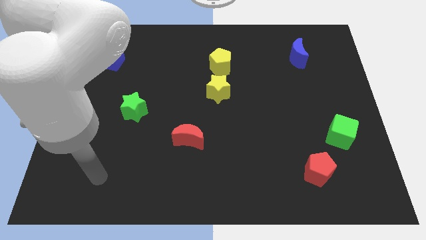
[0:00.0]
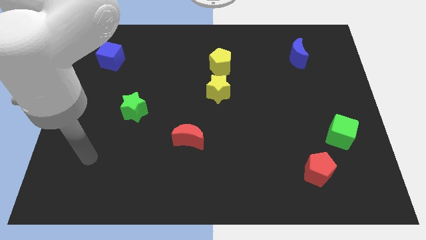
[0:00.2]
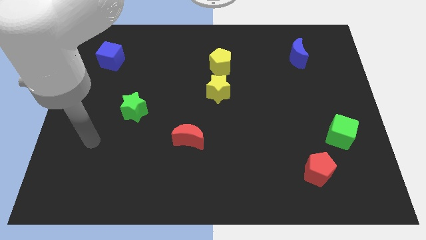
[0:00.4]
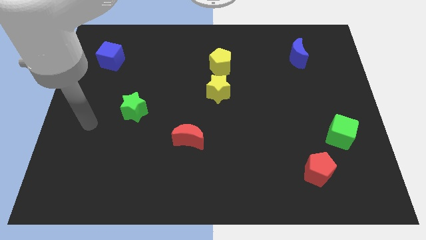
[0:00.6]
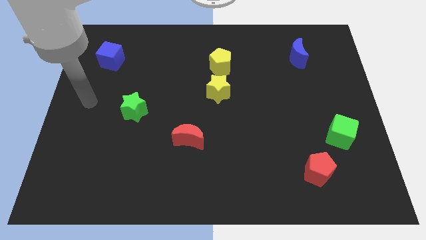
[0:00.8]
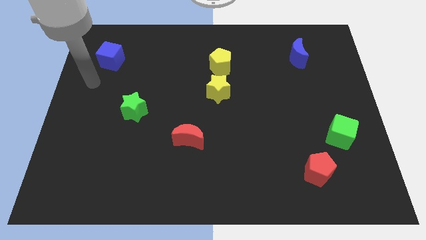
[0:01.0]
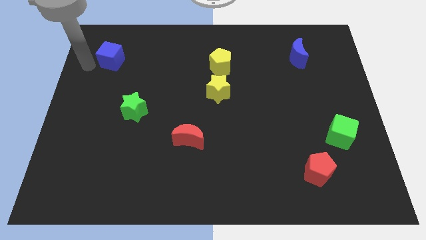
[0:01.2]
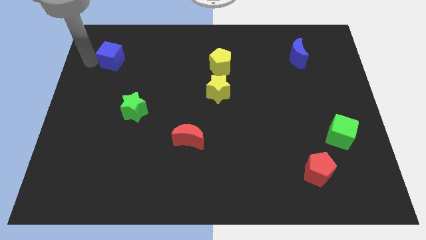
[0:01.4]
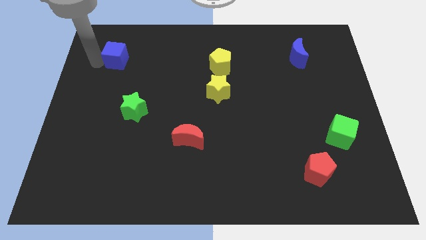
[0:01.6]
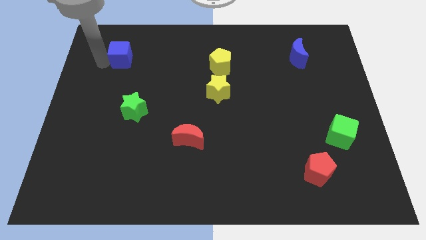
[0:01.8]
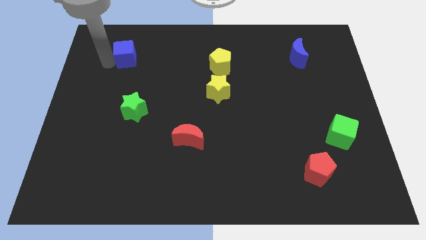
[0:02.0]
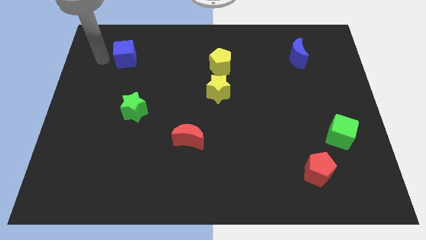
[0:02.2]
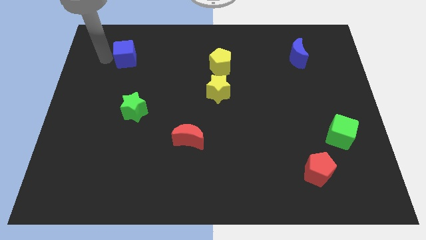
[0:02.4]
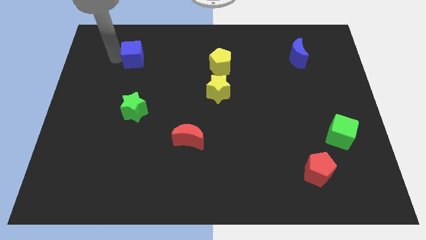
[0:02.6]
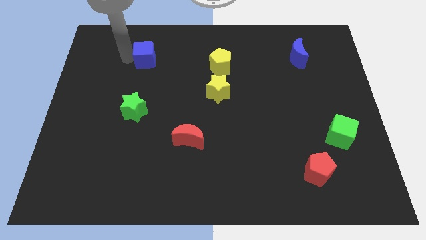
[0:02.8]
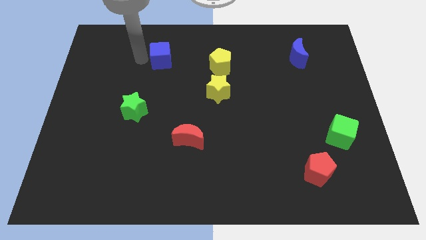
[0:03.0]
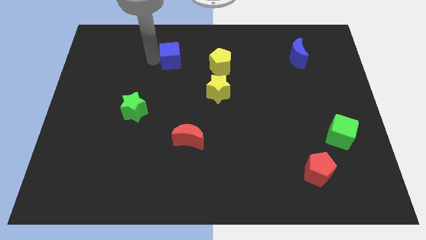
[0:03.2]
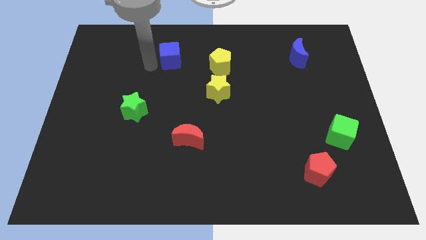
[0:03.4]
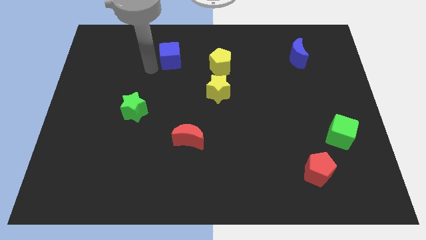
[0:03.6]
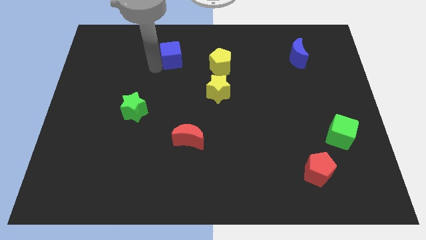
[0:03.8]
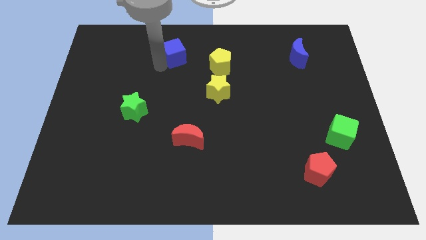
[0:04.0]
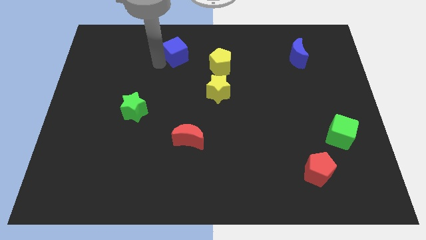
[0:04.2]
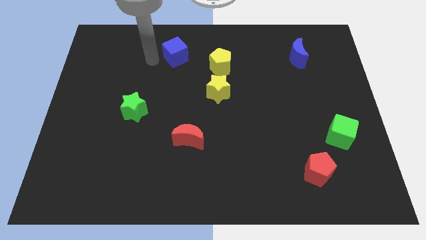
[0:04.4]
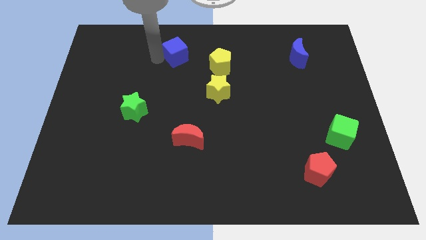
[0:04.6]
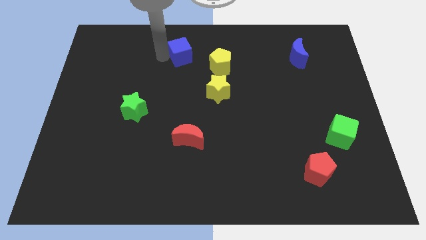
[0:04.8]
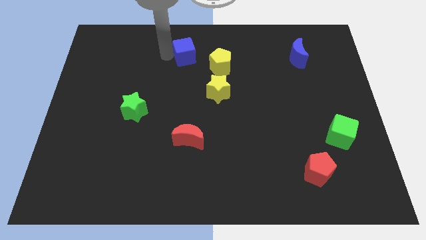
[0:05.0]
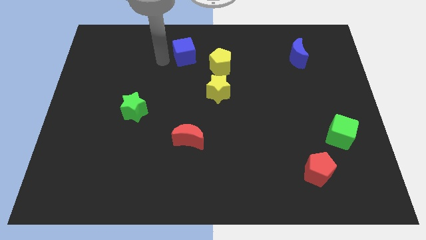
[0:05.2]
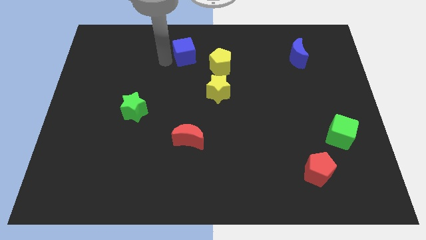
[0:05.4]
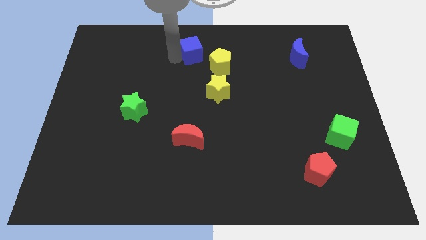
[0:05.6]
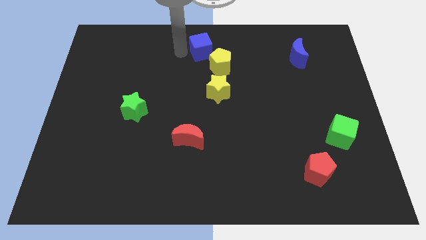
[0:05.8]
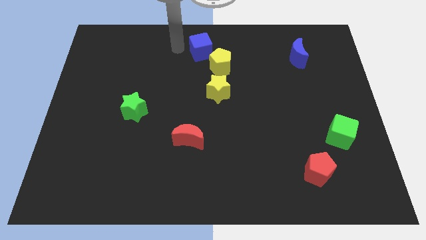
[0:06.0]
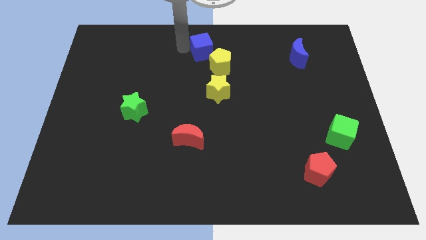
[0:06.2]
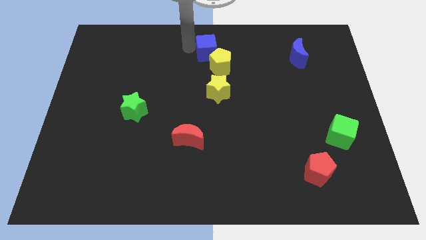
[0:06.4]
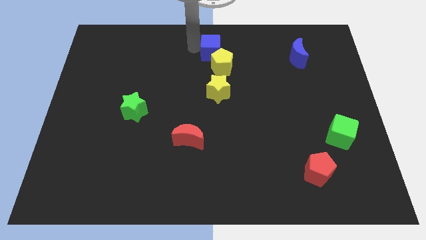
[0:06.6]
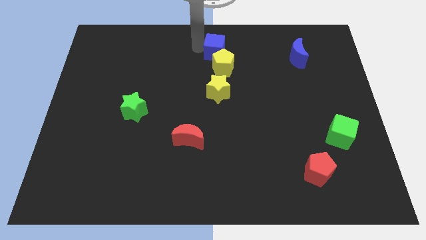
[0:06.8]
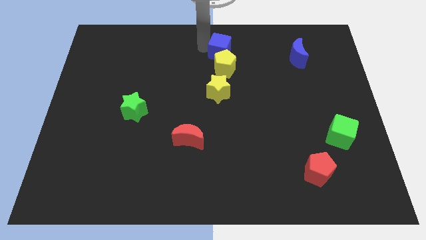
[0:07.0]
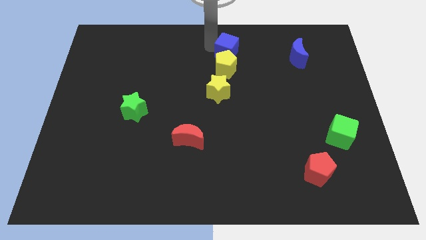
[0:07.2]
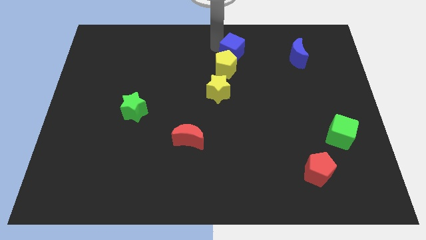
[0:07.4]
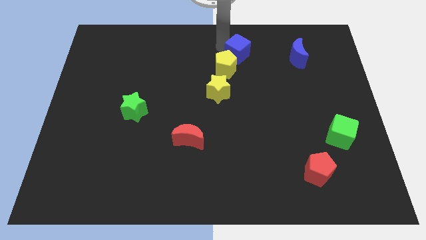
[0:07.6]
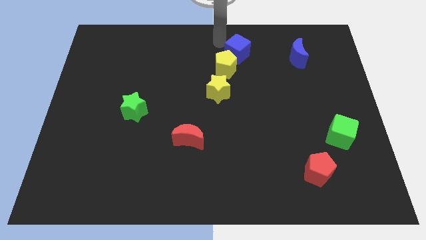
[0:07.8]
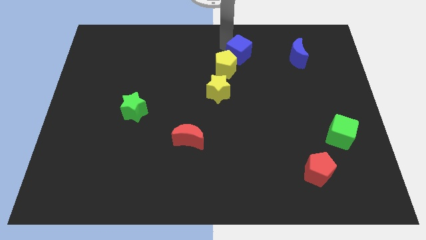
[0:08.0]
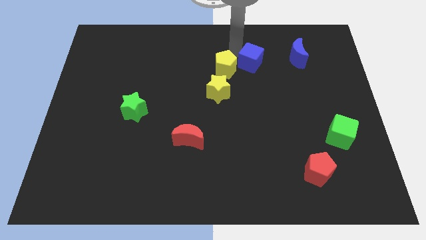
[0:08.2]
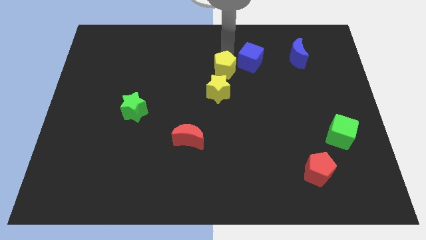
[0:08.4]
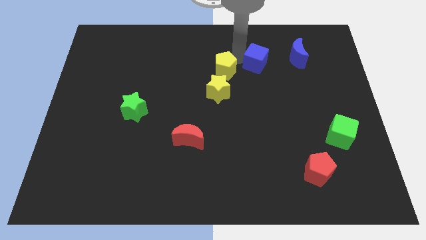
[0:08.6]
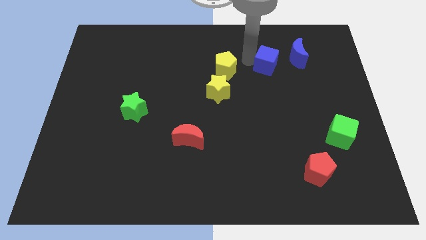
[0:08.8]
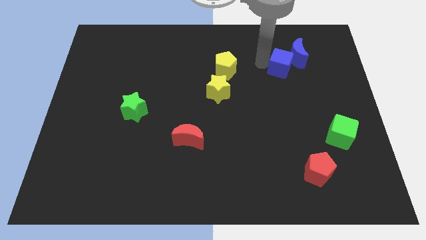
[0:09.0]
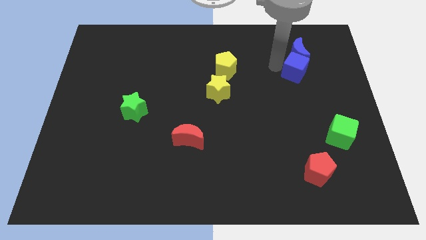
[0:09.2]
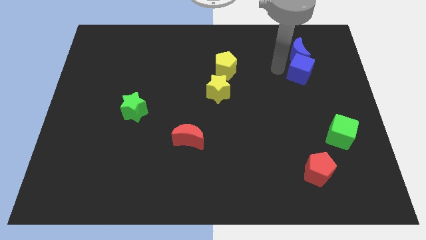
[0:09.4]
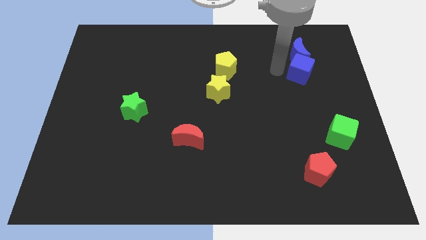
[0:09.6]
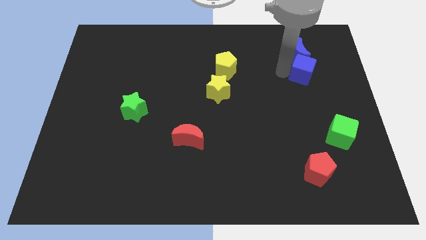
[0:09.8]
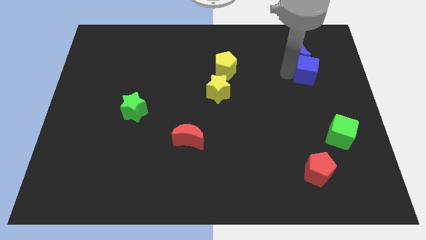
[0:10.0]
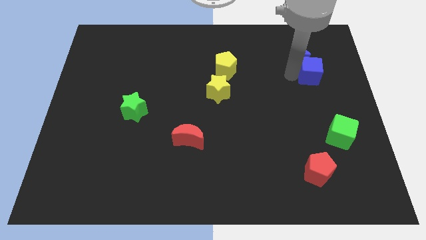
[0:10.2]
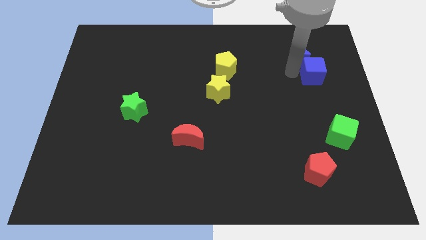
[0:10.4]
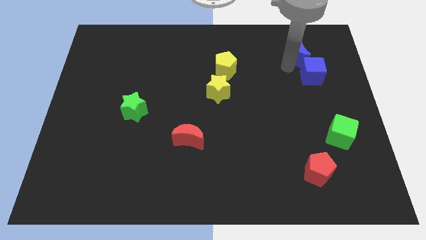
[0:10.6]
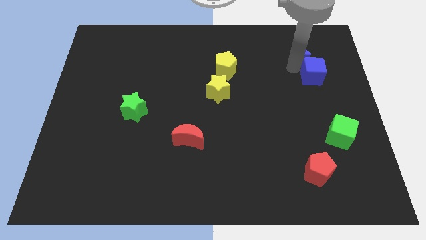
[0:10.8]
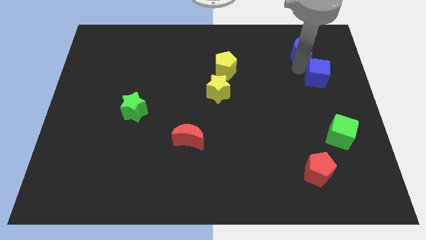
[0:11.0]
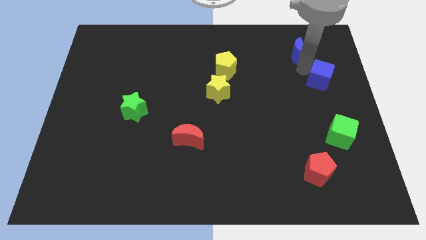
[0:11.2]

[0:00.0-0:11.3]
push the blue cube to the center right

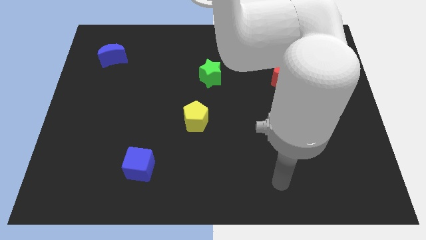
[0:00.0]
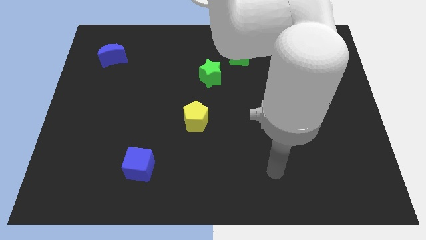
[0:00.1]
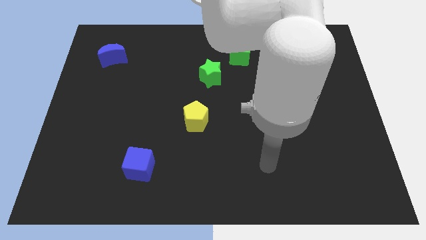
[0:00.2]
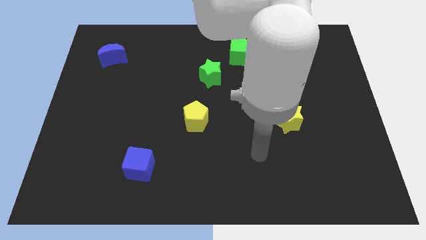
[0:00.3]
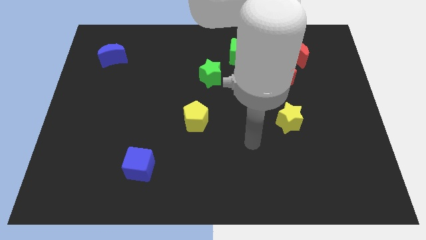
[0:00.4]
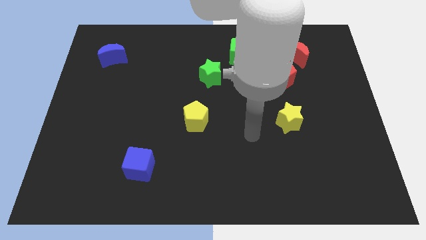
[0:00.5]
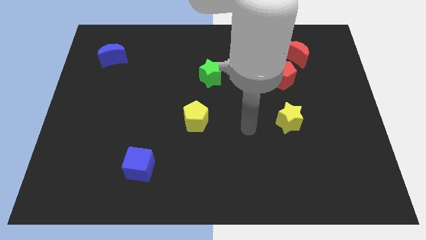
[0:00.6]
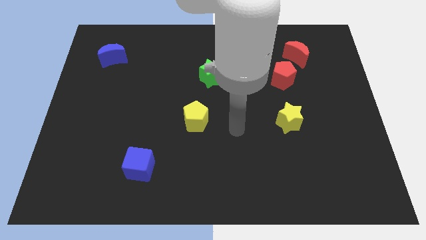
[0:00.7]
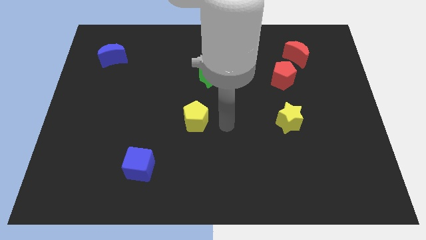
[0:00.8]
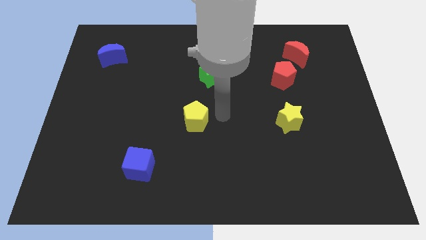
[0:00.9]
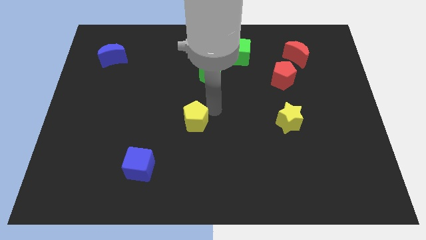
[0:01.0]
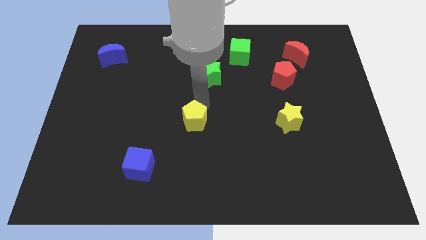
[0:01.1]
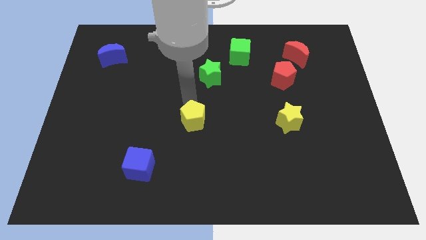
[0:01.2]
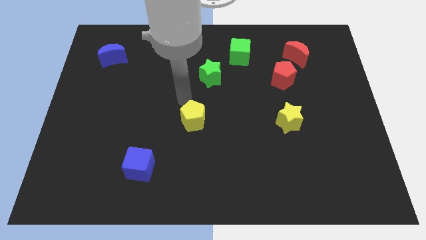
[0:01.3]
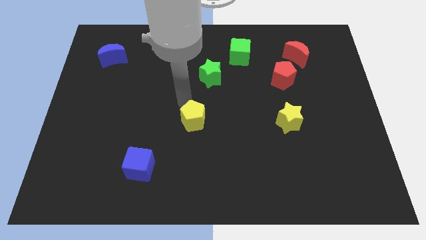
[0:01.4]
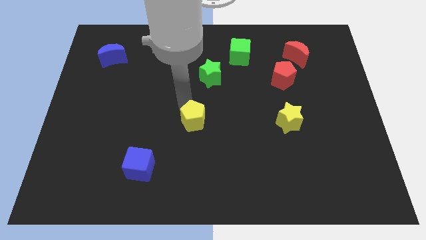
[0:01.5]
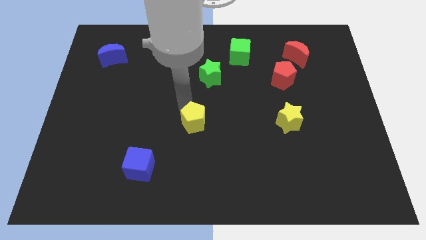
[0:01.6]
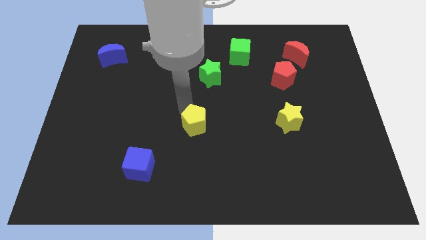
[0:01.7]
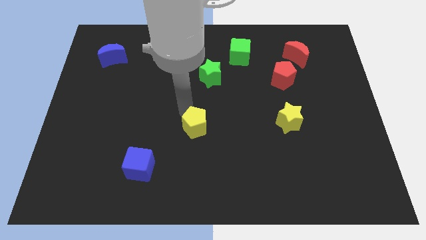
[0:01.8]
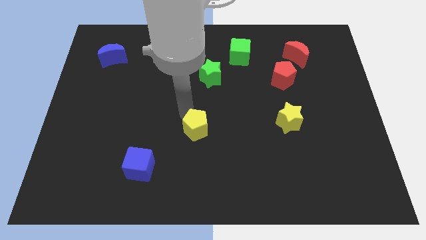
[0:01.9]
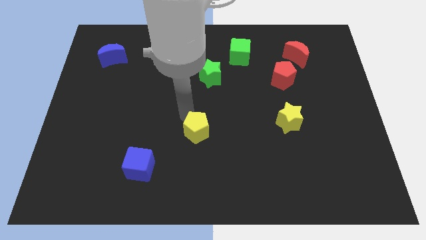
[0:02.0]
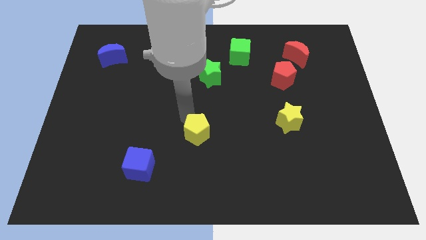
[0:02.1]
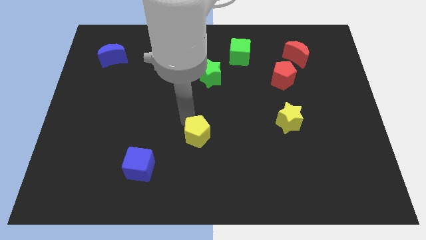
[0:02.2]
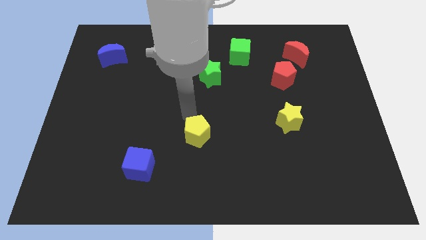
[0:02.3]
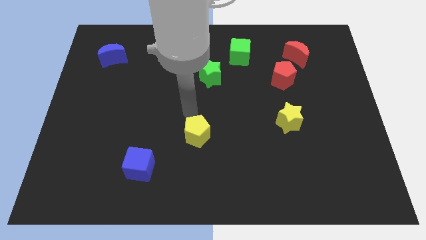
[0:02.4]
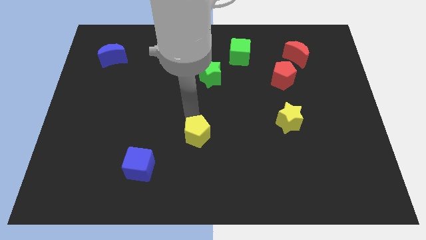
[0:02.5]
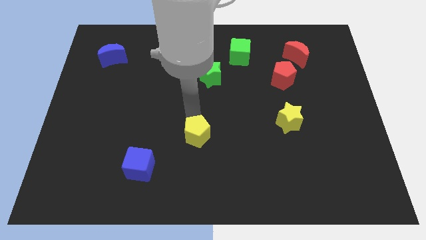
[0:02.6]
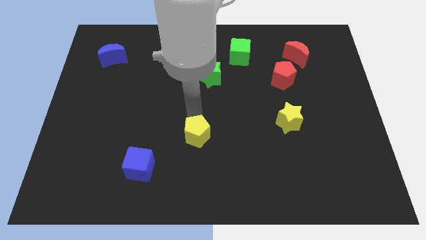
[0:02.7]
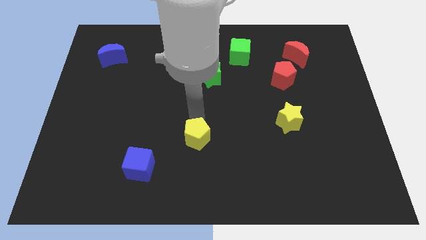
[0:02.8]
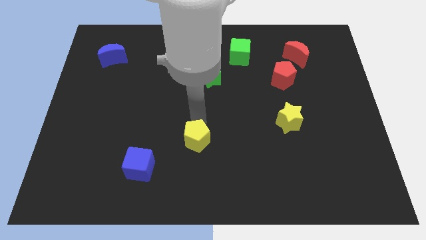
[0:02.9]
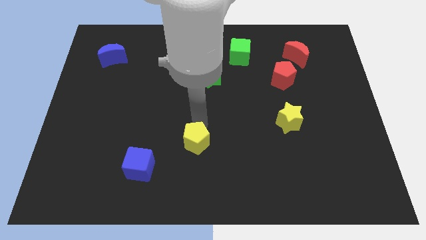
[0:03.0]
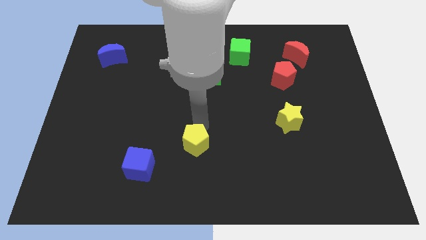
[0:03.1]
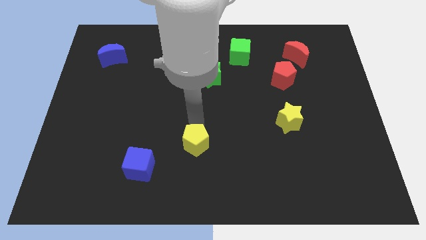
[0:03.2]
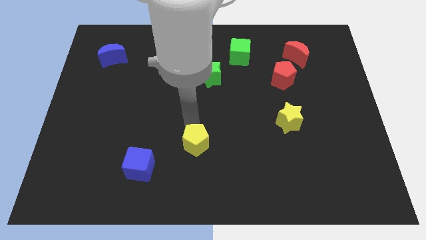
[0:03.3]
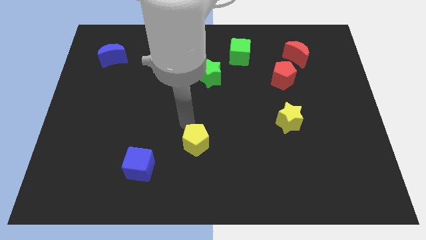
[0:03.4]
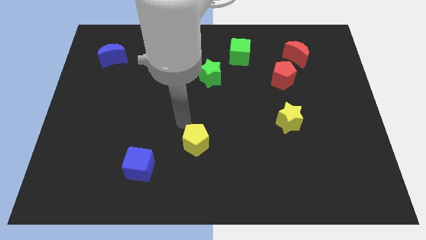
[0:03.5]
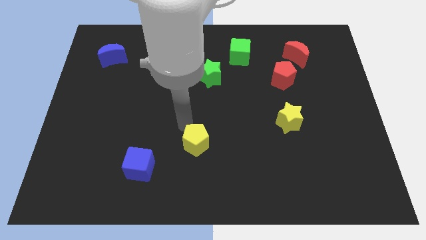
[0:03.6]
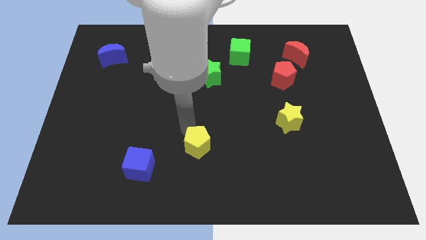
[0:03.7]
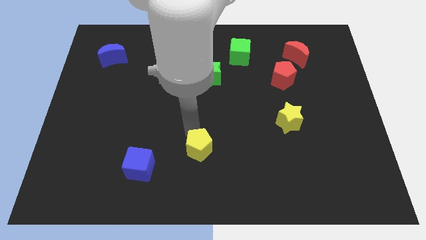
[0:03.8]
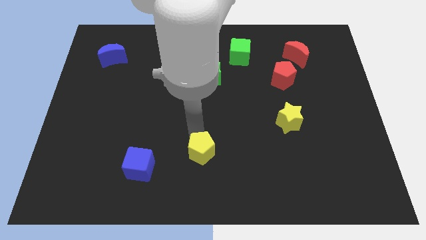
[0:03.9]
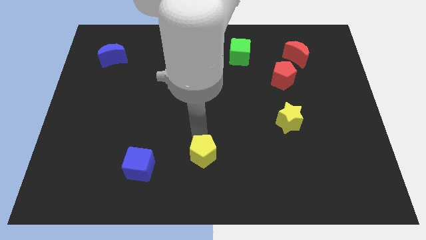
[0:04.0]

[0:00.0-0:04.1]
move the yellow pentagon to the bottom side
